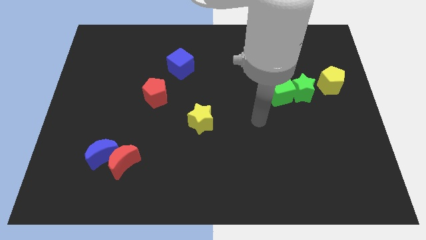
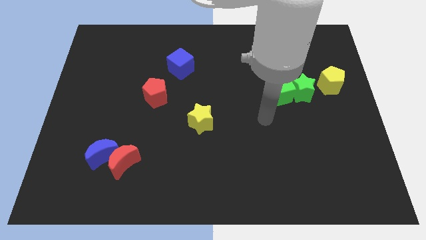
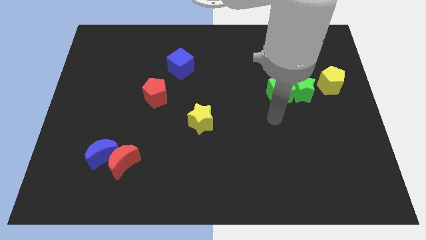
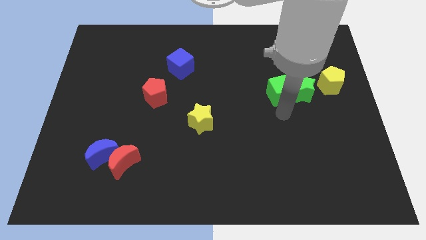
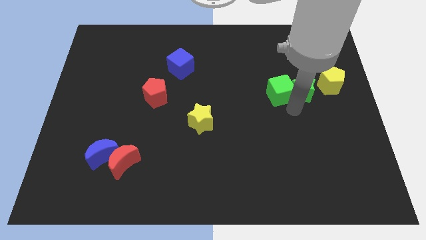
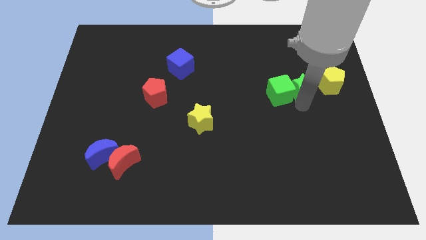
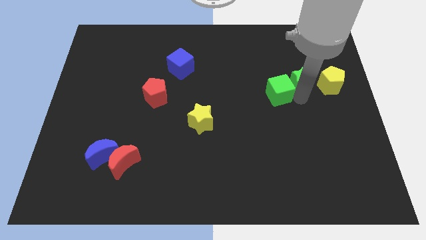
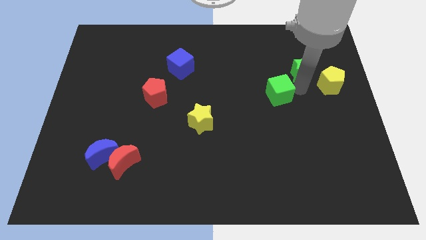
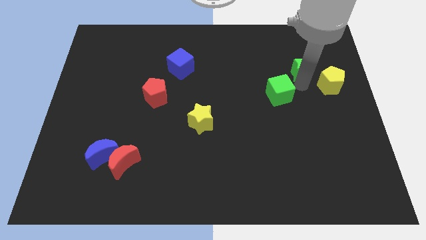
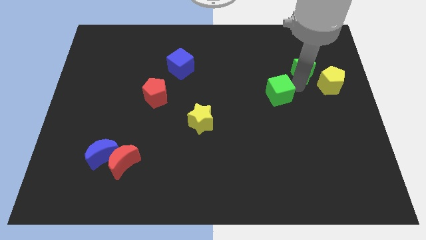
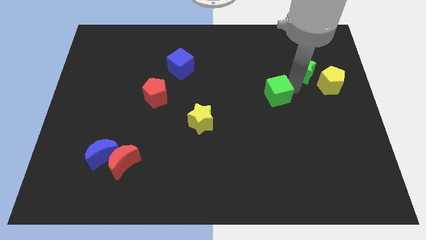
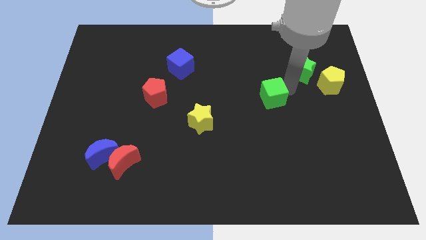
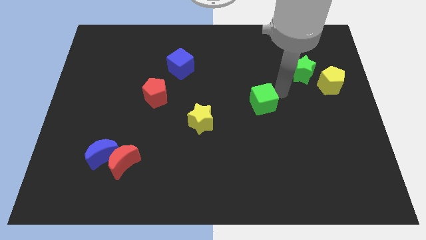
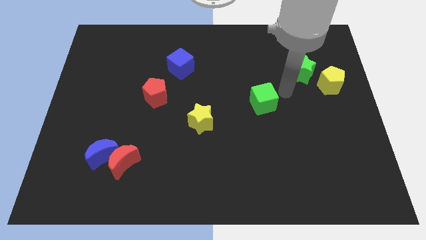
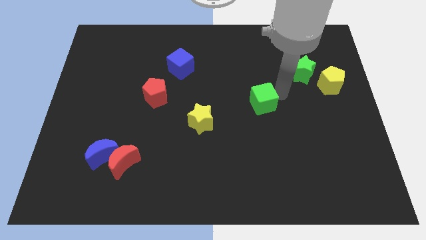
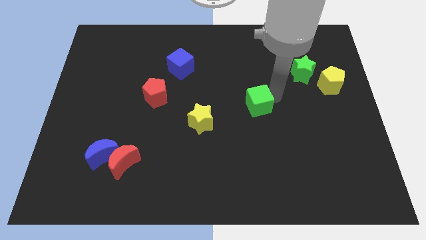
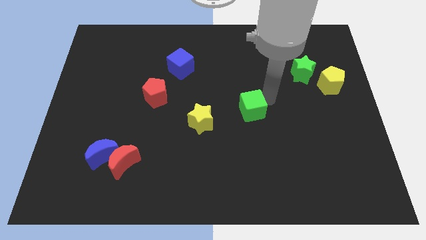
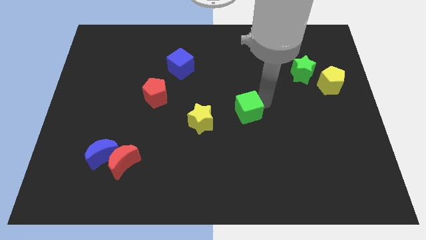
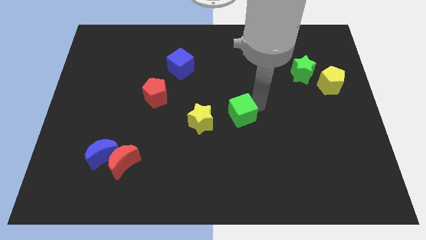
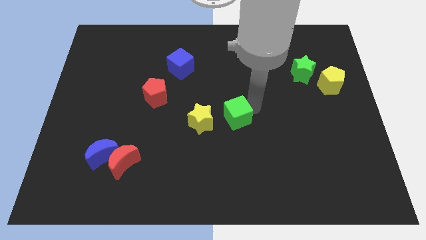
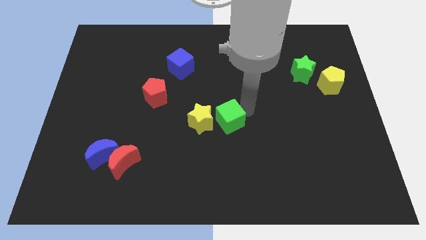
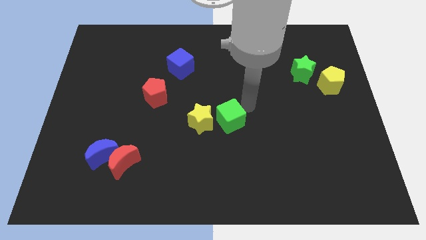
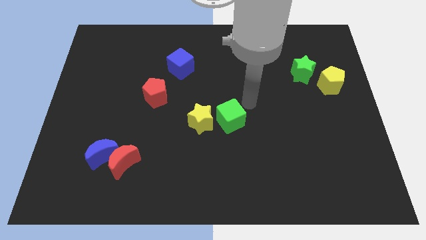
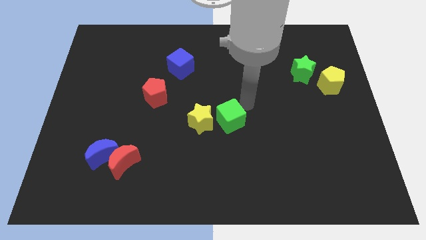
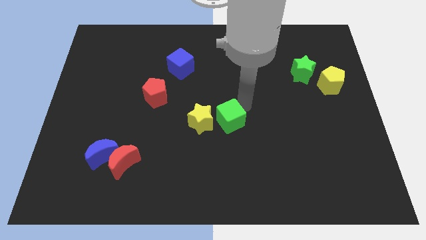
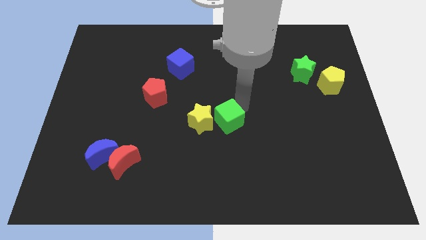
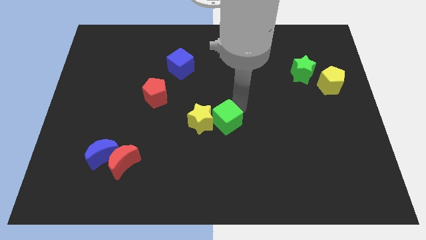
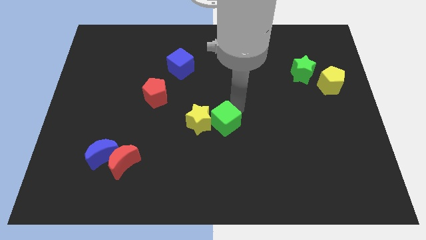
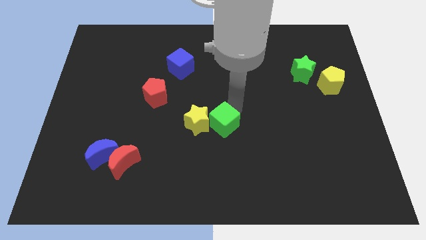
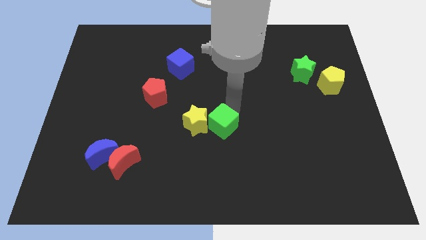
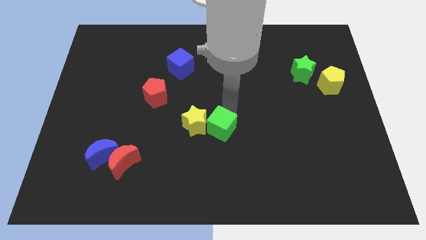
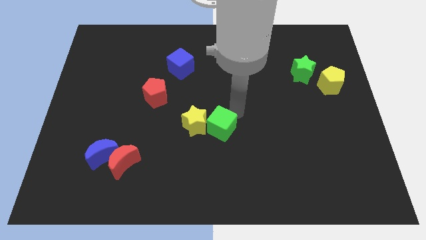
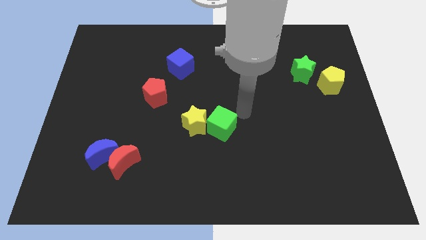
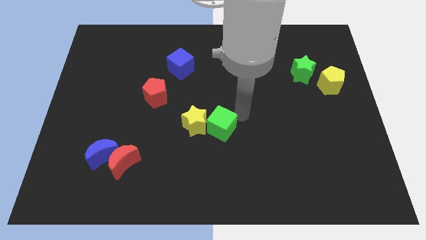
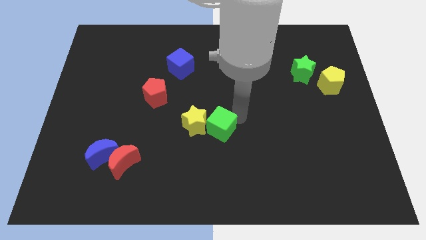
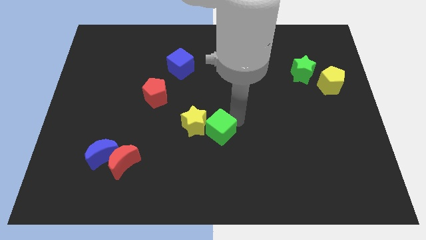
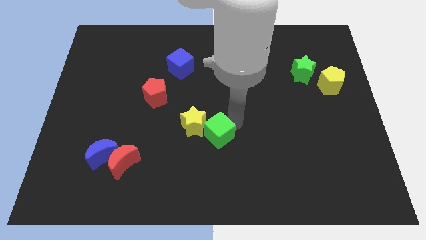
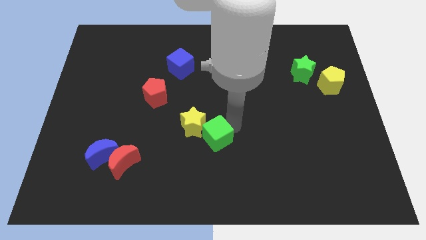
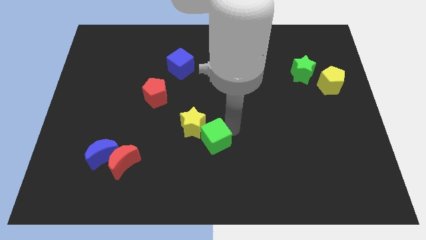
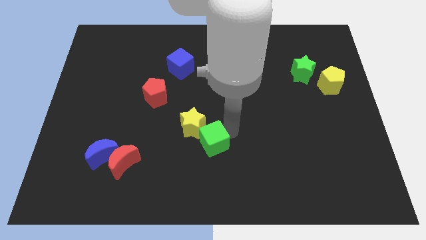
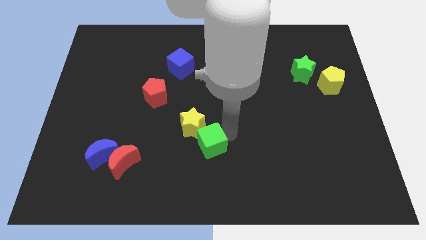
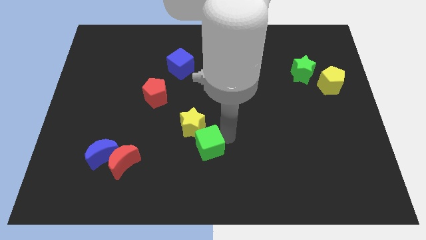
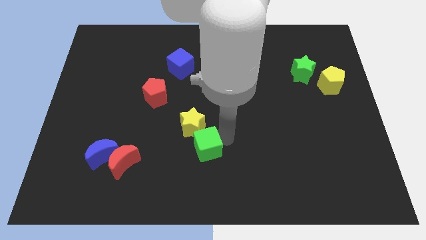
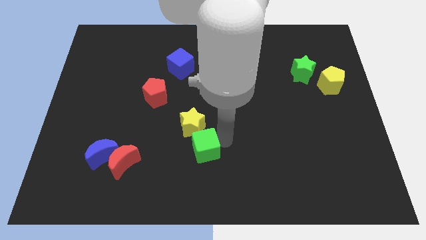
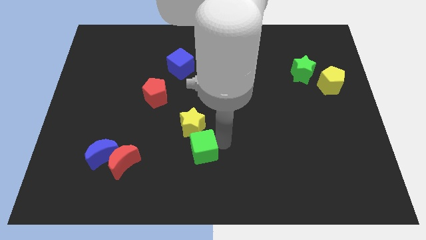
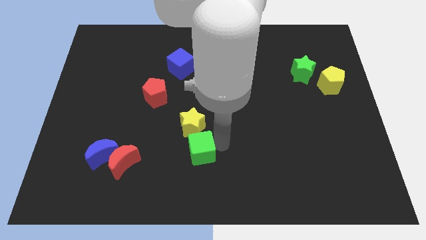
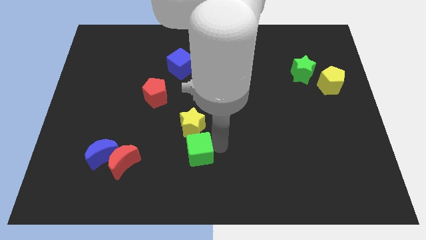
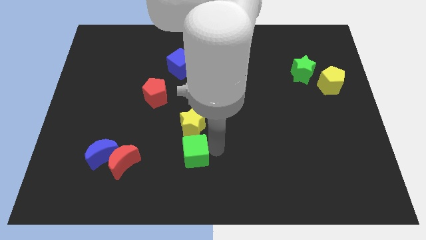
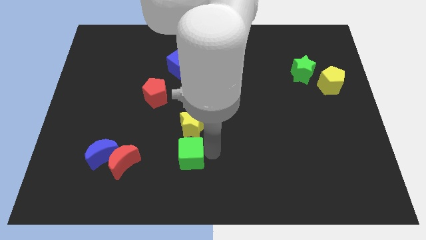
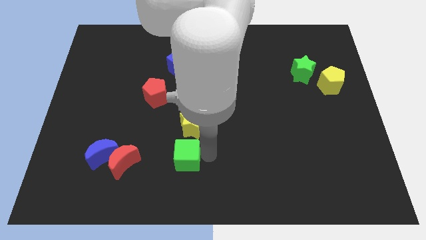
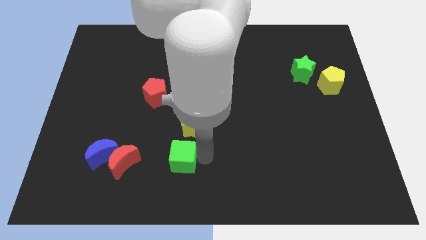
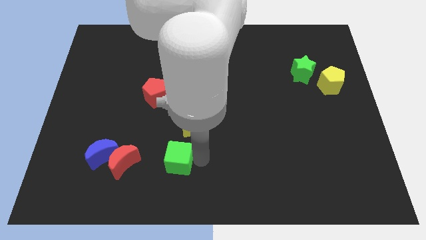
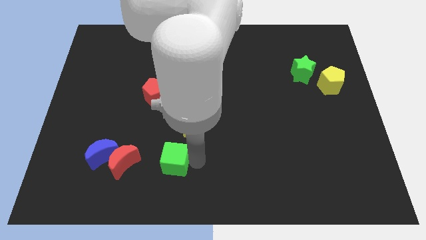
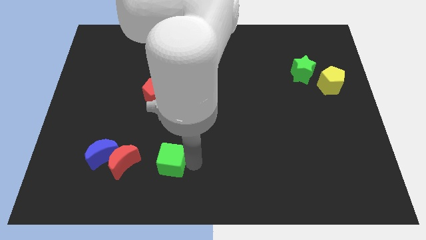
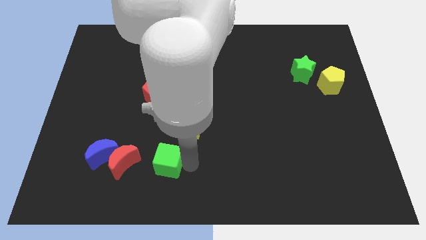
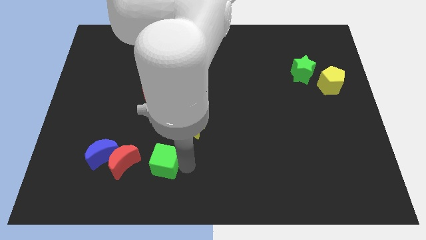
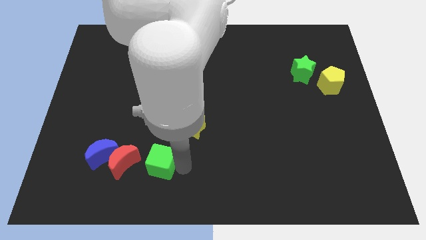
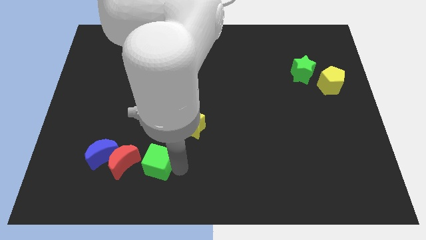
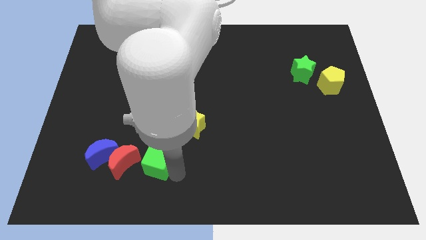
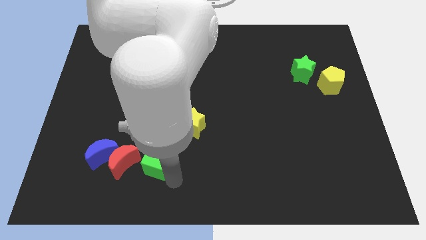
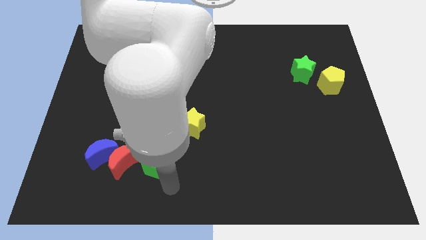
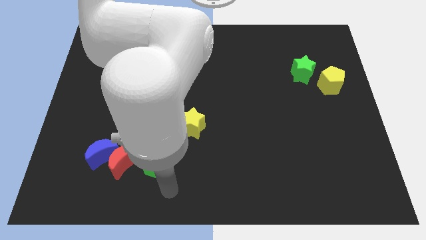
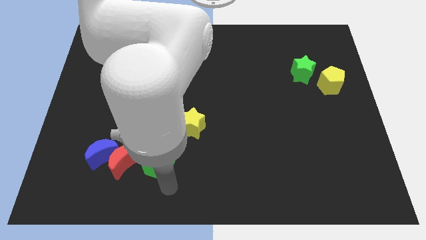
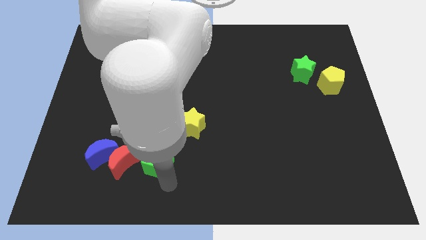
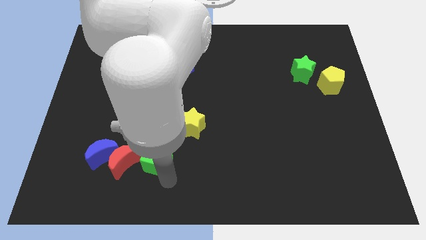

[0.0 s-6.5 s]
put the green cube diagonally up and to the right of the red moon
